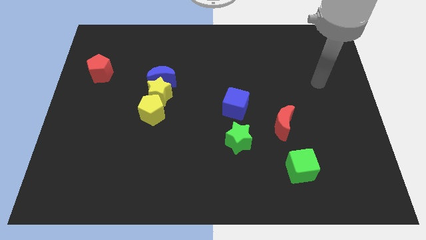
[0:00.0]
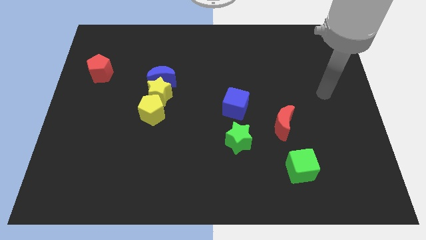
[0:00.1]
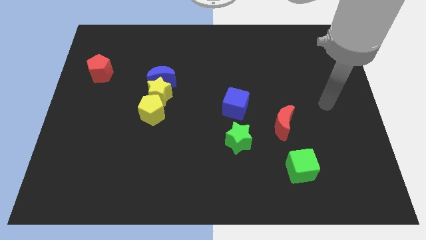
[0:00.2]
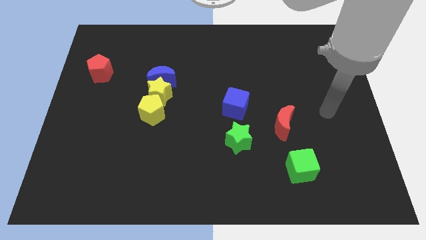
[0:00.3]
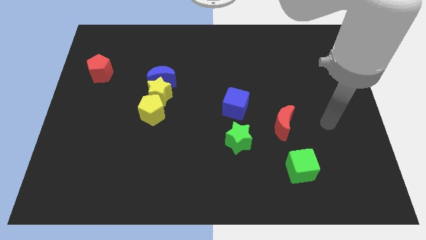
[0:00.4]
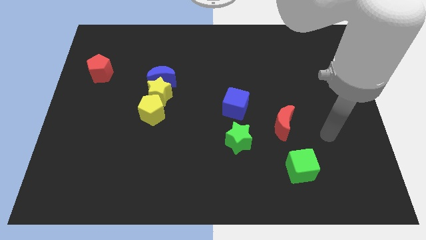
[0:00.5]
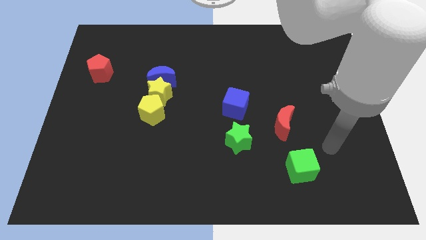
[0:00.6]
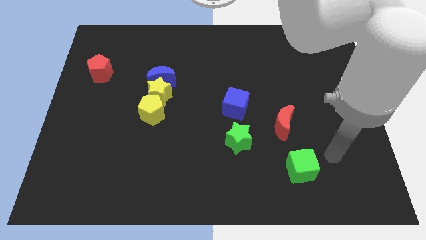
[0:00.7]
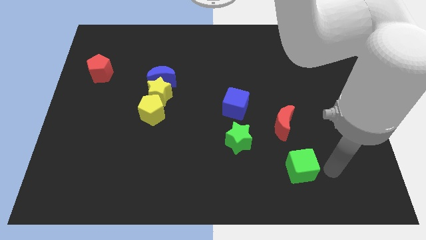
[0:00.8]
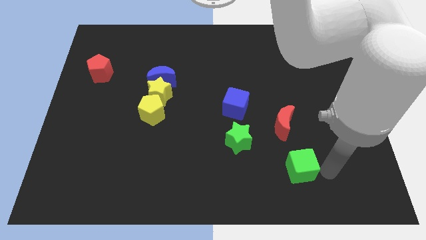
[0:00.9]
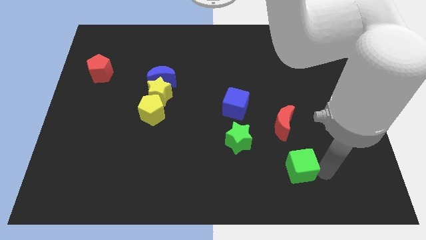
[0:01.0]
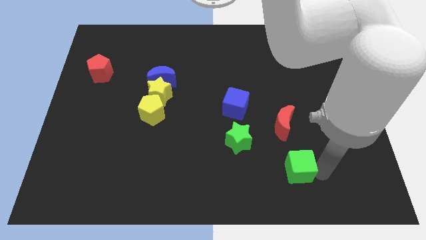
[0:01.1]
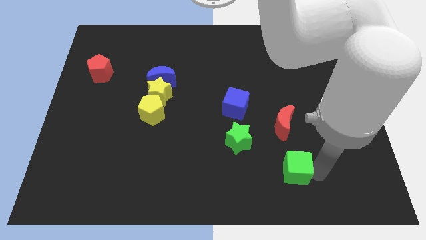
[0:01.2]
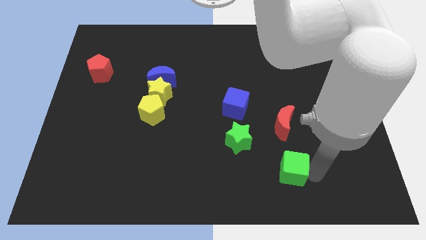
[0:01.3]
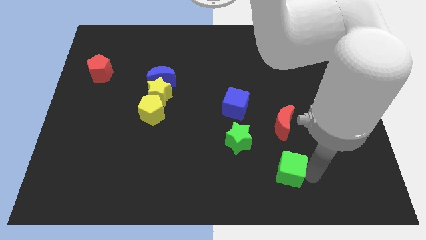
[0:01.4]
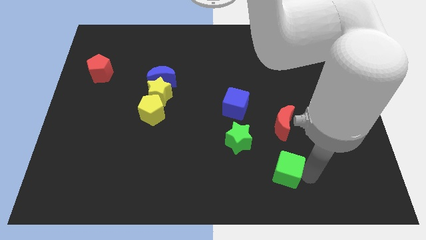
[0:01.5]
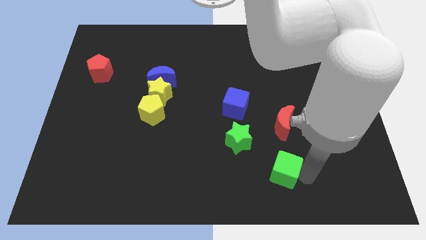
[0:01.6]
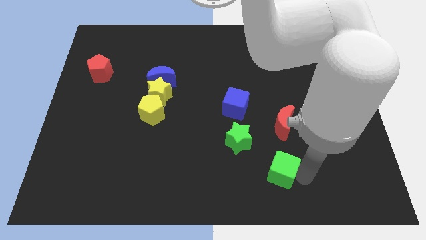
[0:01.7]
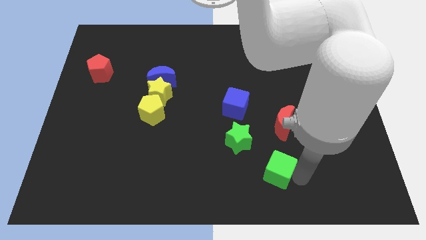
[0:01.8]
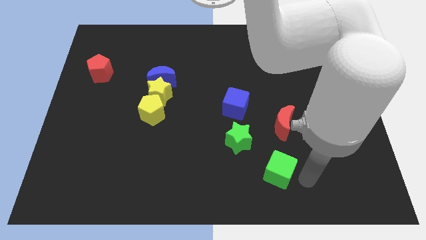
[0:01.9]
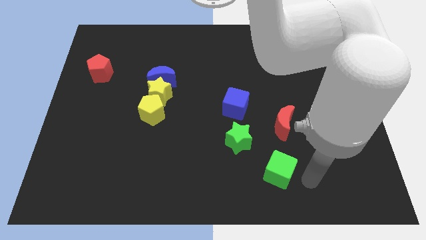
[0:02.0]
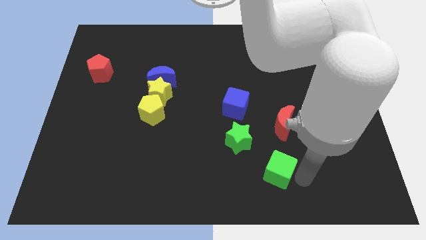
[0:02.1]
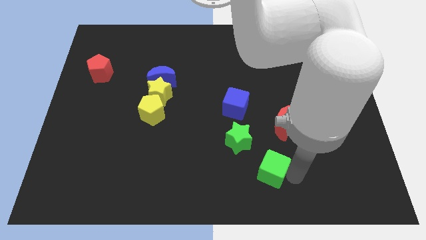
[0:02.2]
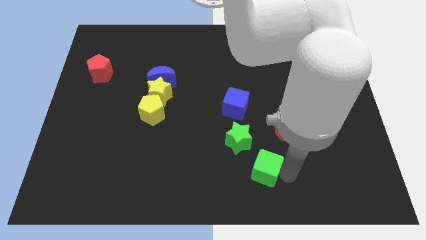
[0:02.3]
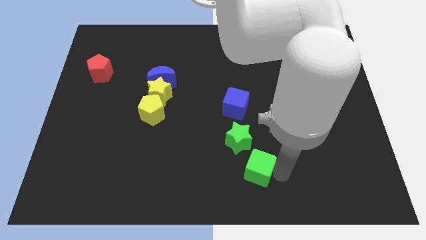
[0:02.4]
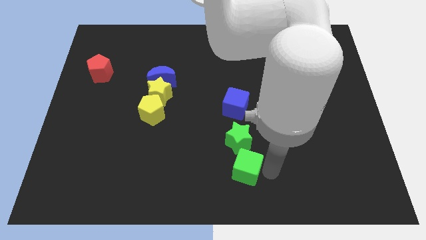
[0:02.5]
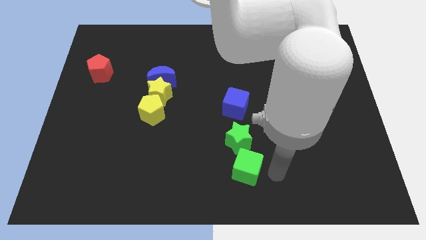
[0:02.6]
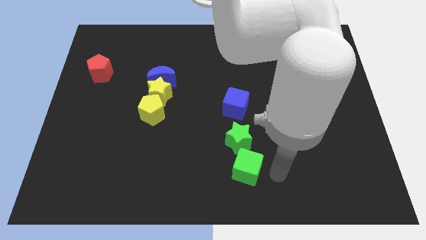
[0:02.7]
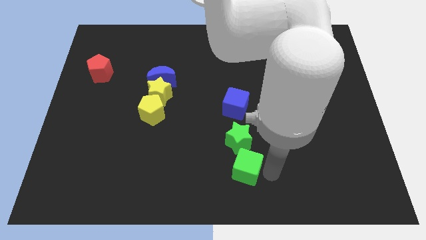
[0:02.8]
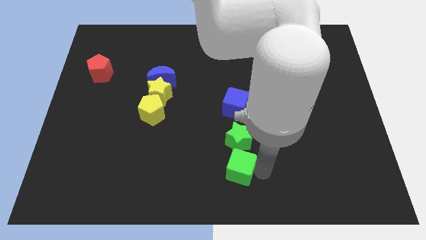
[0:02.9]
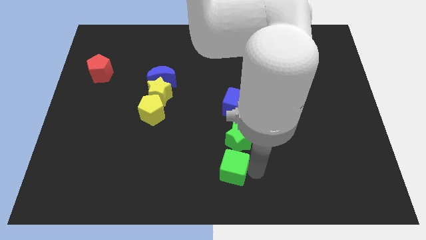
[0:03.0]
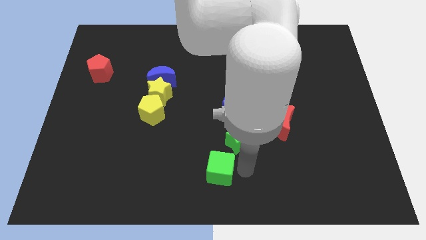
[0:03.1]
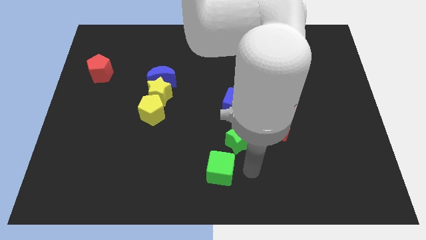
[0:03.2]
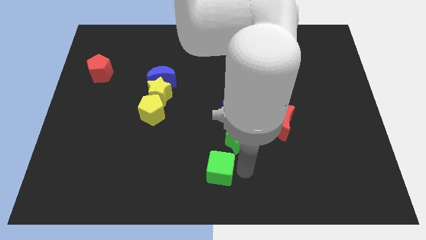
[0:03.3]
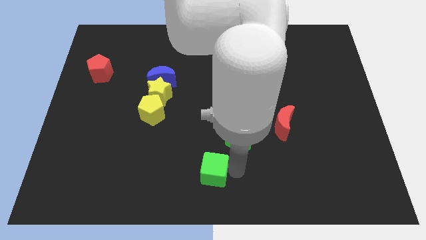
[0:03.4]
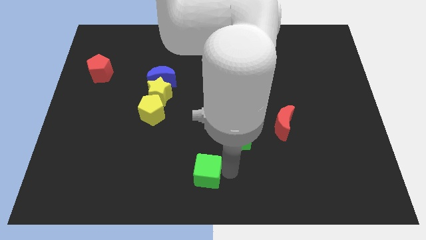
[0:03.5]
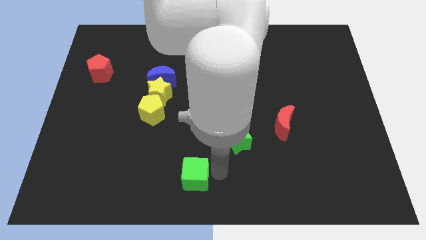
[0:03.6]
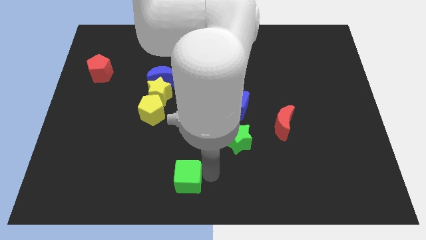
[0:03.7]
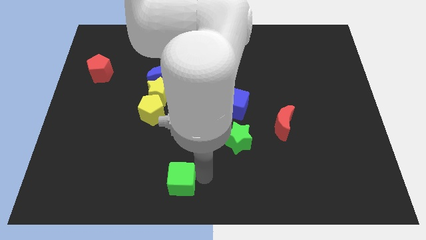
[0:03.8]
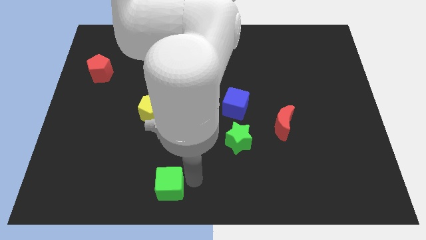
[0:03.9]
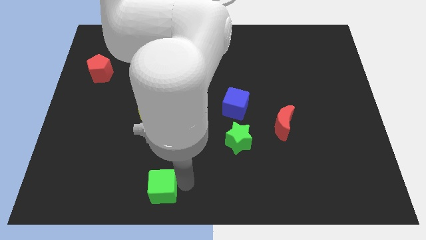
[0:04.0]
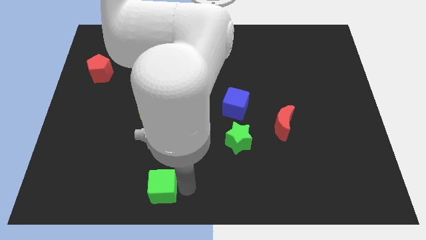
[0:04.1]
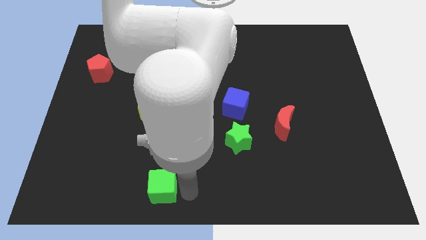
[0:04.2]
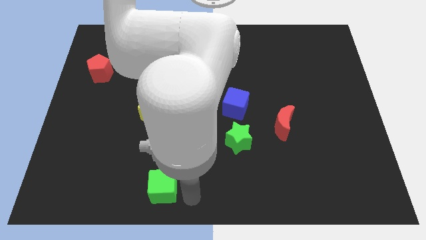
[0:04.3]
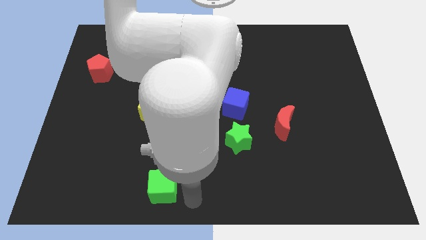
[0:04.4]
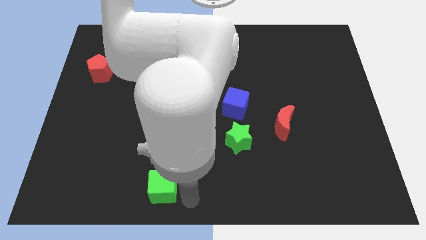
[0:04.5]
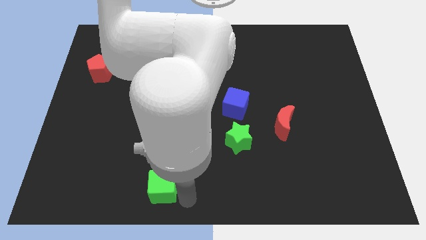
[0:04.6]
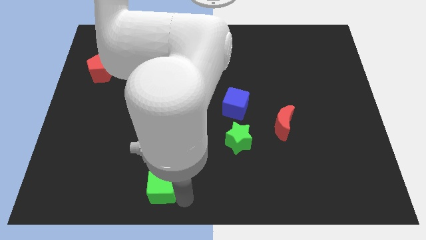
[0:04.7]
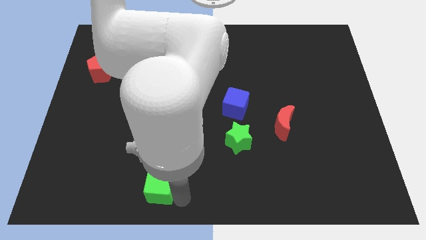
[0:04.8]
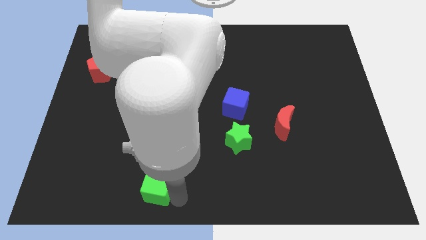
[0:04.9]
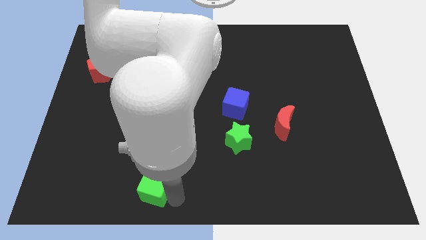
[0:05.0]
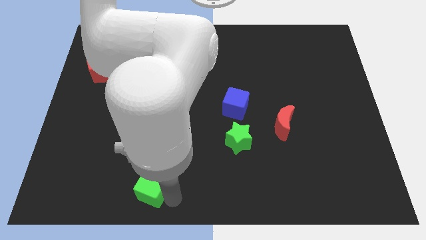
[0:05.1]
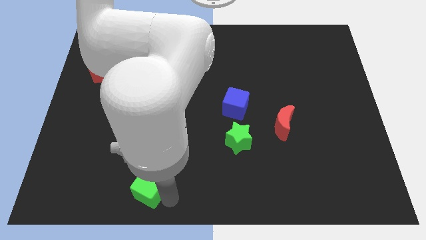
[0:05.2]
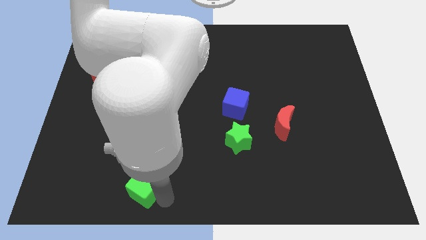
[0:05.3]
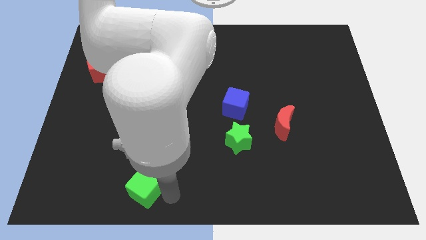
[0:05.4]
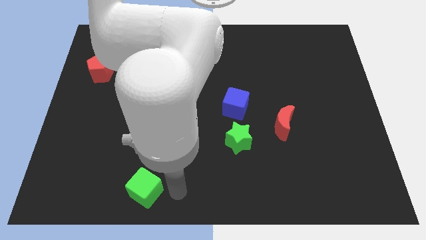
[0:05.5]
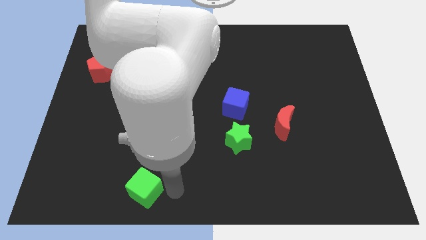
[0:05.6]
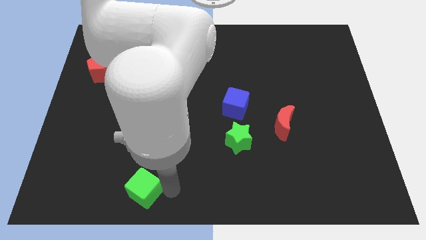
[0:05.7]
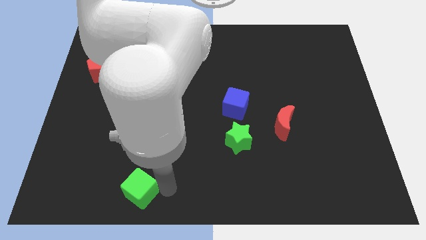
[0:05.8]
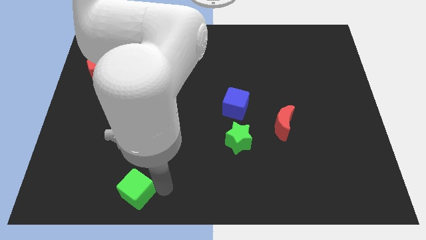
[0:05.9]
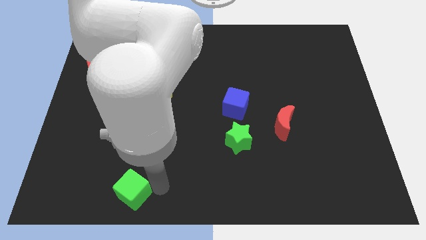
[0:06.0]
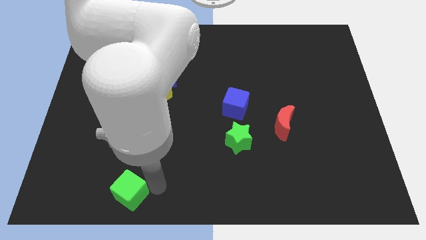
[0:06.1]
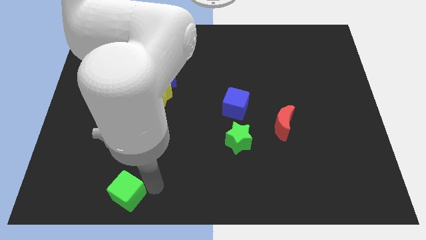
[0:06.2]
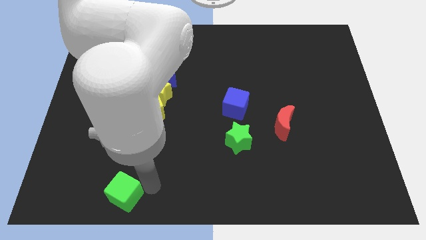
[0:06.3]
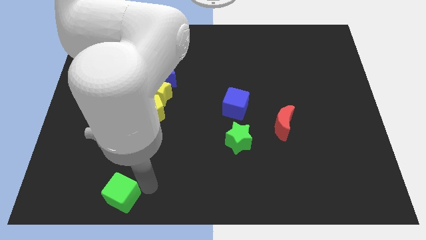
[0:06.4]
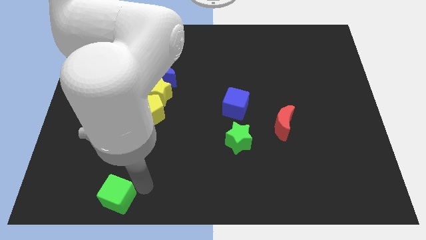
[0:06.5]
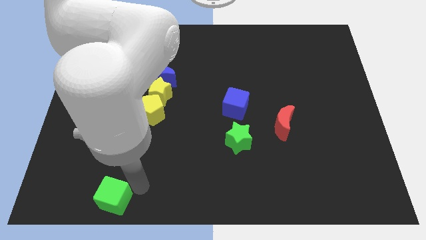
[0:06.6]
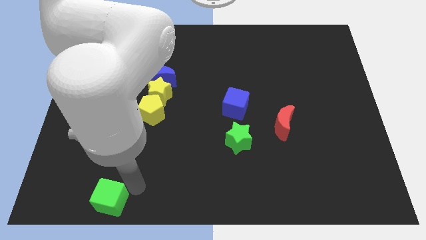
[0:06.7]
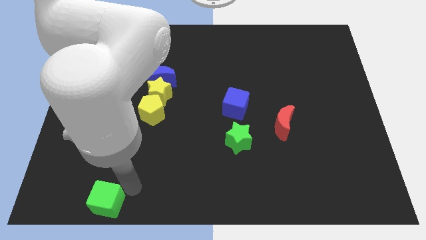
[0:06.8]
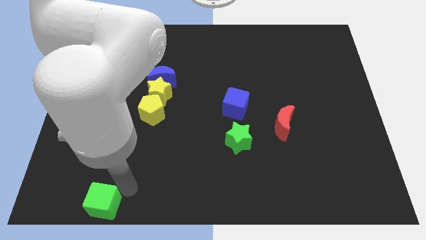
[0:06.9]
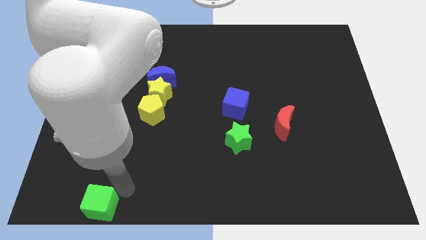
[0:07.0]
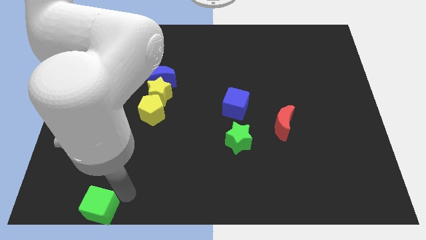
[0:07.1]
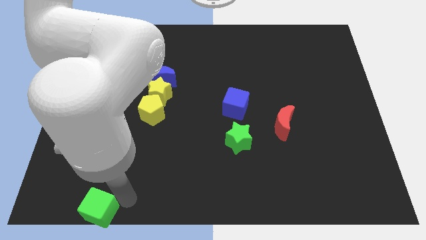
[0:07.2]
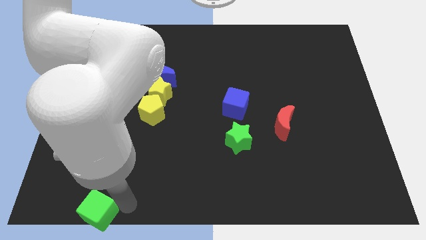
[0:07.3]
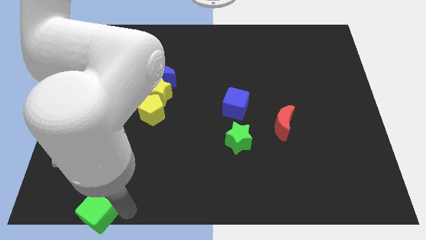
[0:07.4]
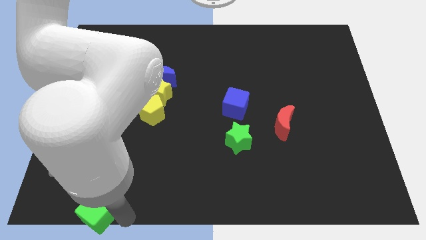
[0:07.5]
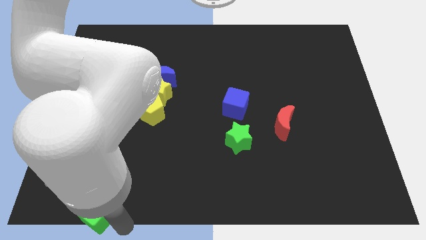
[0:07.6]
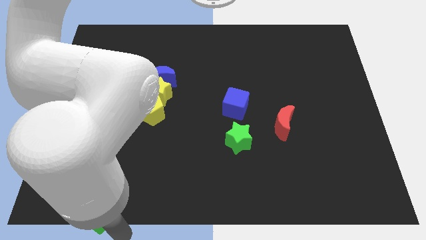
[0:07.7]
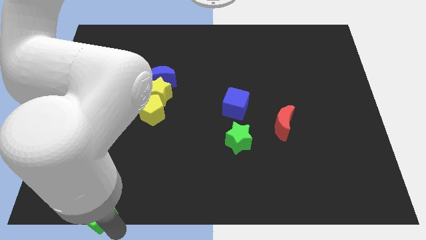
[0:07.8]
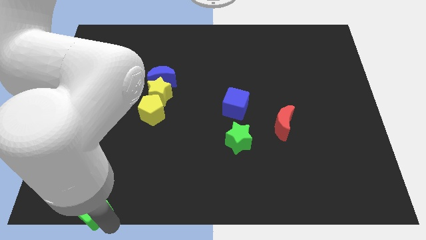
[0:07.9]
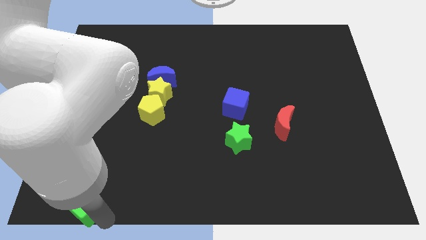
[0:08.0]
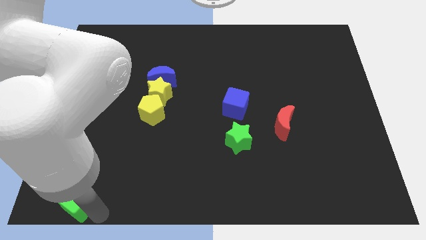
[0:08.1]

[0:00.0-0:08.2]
move the green cube to the lower left corner
